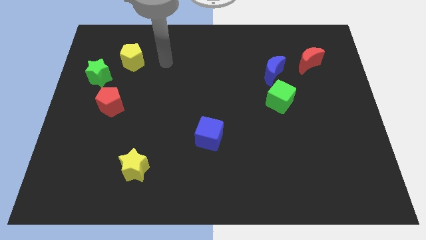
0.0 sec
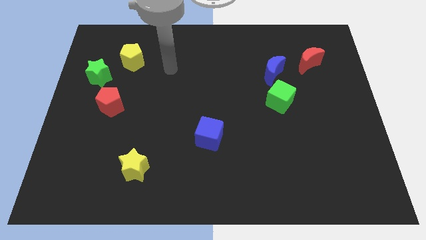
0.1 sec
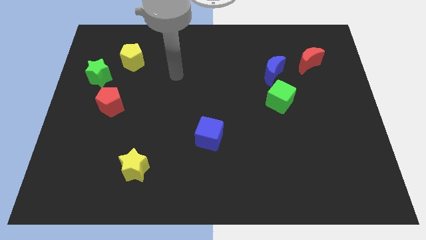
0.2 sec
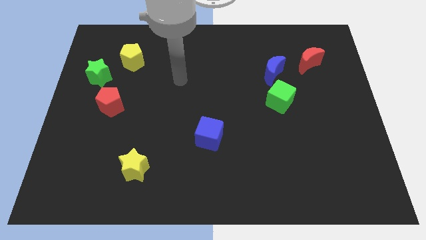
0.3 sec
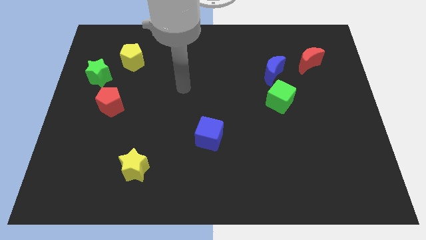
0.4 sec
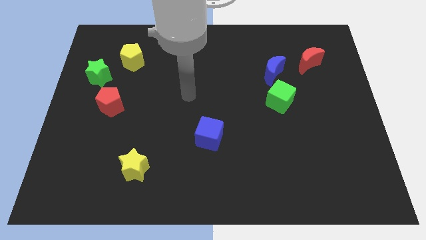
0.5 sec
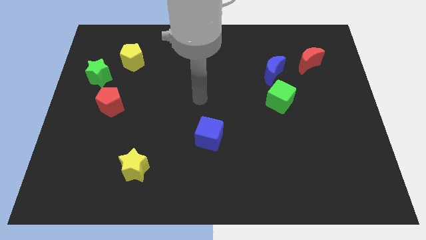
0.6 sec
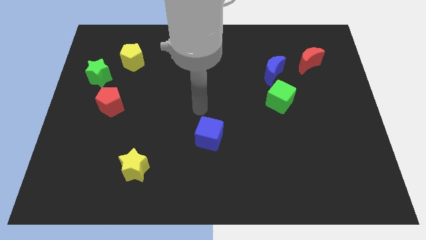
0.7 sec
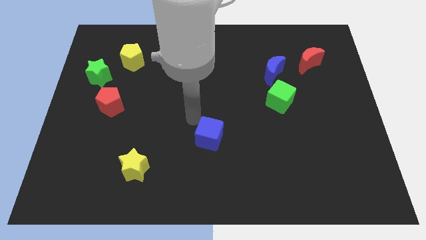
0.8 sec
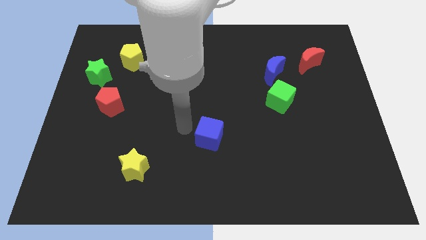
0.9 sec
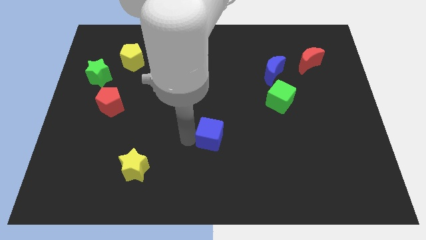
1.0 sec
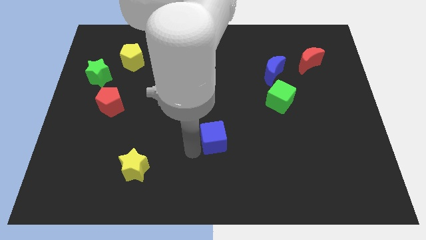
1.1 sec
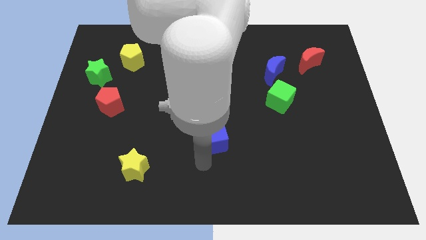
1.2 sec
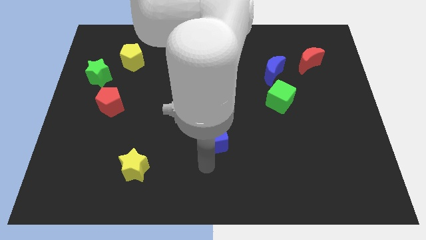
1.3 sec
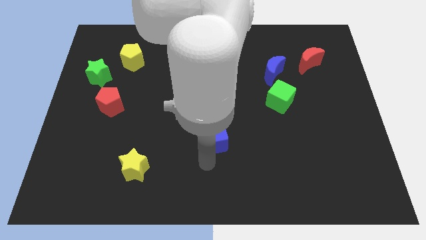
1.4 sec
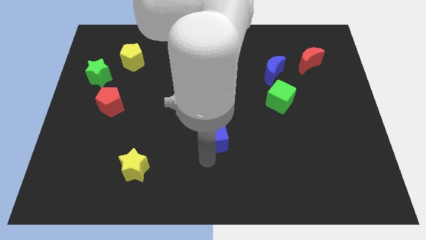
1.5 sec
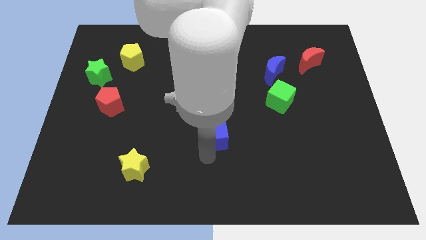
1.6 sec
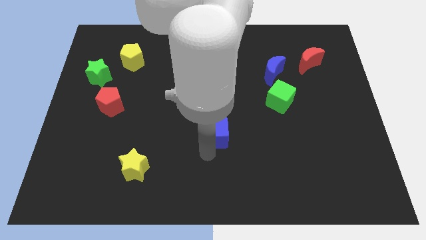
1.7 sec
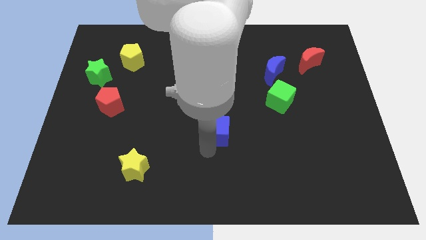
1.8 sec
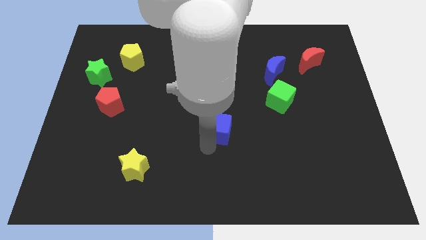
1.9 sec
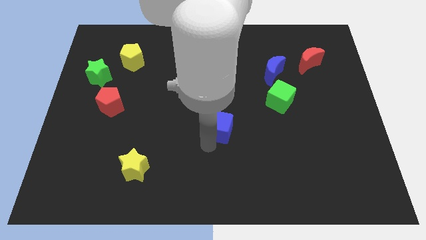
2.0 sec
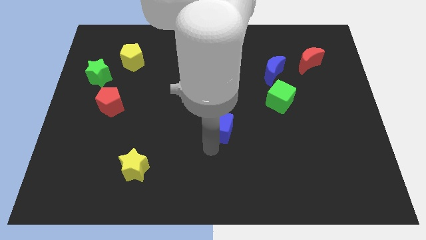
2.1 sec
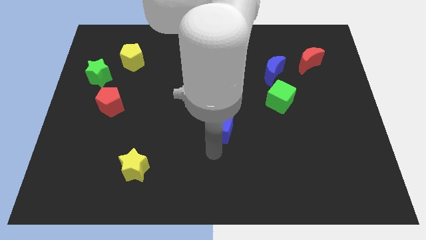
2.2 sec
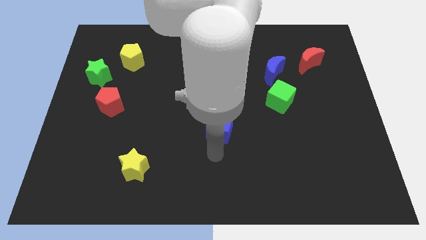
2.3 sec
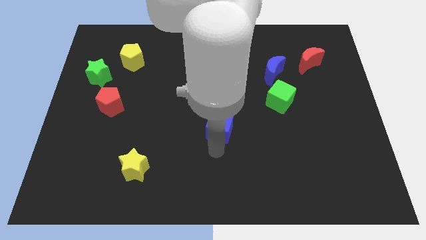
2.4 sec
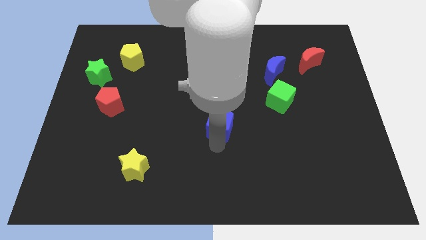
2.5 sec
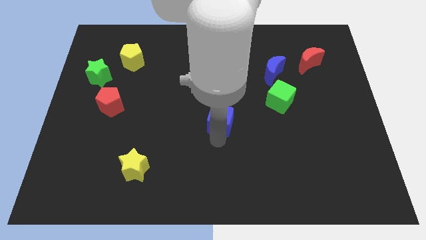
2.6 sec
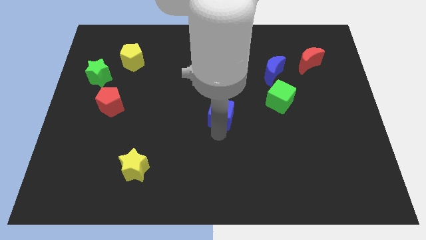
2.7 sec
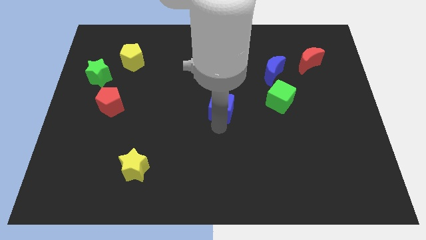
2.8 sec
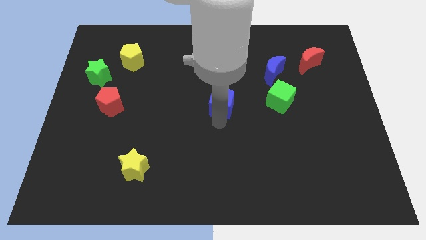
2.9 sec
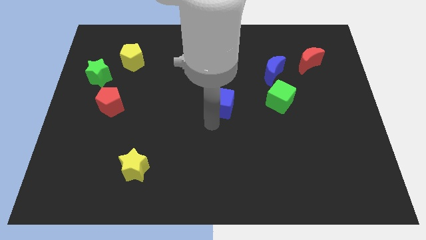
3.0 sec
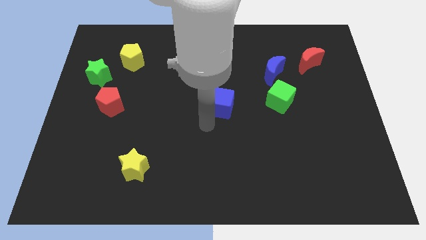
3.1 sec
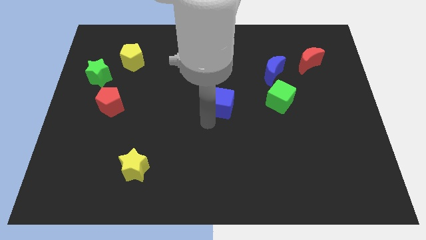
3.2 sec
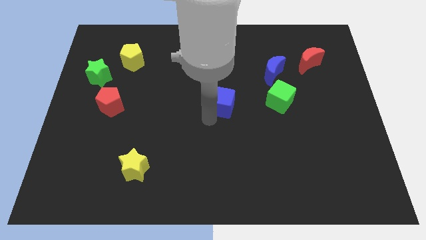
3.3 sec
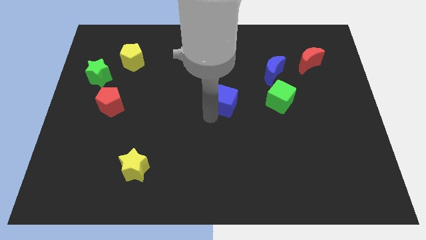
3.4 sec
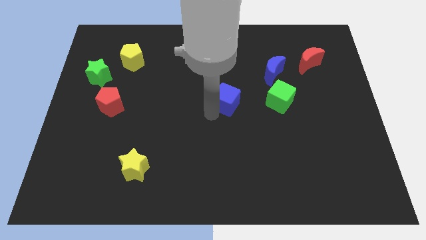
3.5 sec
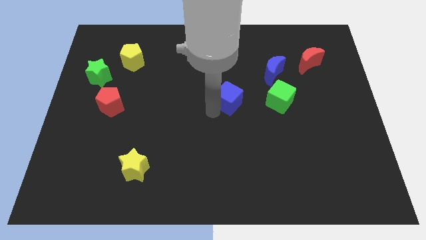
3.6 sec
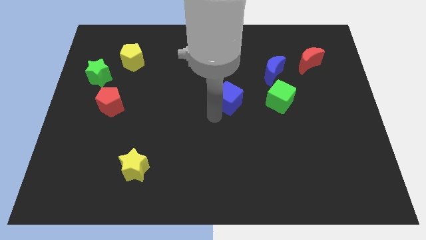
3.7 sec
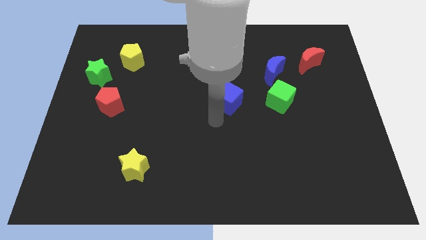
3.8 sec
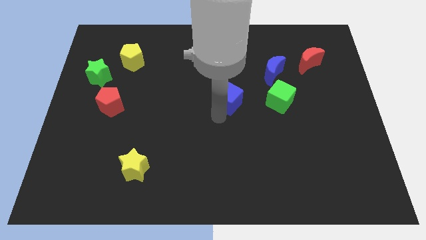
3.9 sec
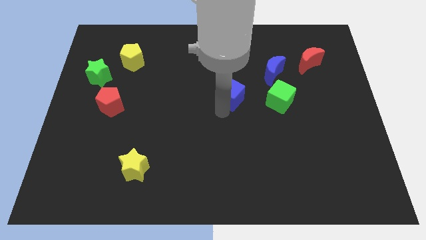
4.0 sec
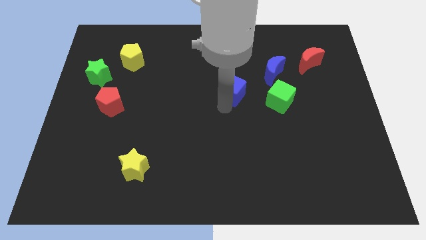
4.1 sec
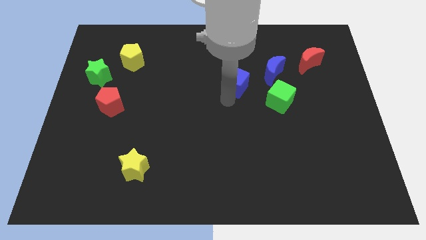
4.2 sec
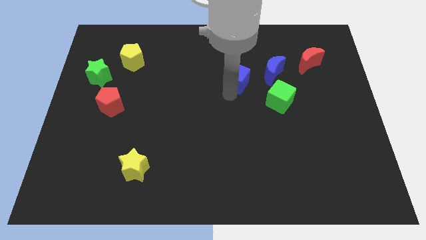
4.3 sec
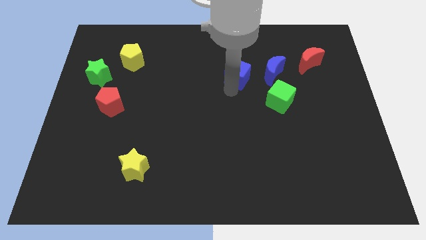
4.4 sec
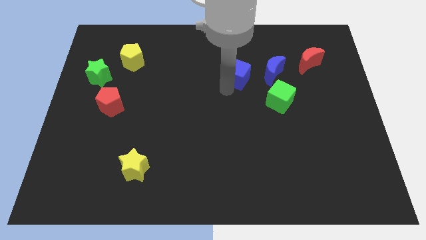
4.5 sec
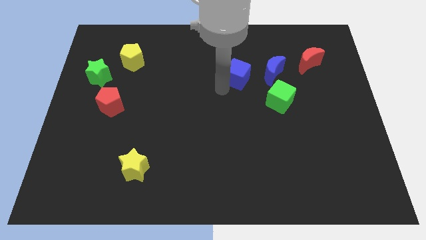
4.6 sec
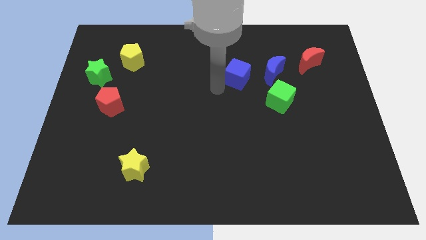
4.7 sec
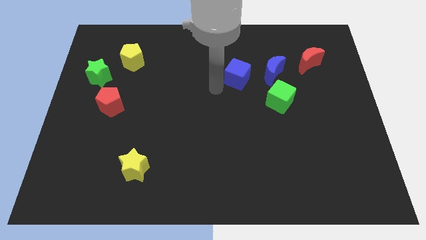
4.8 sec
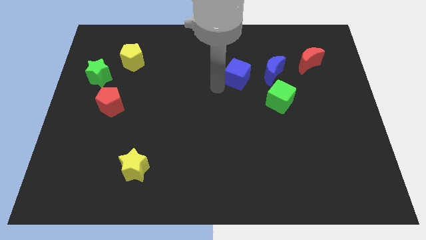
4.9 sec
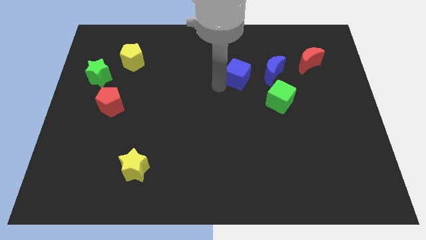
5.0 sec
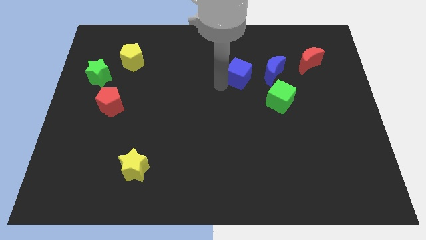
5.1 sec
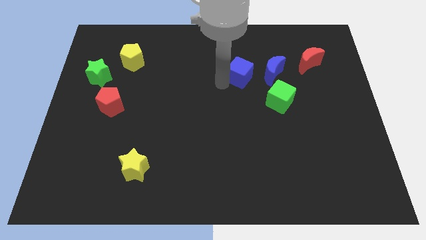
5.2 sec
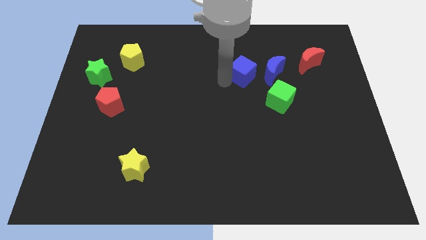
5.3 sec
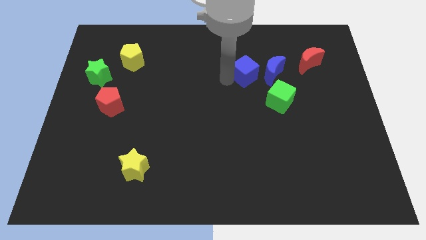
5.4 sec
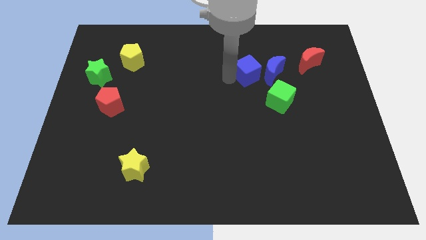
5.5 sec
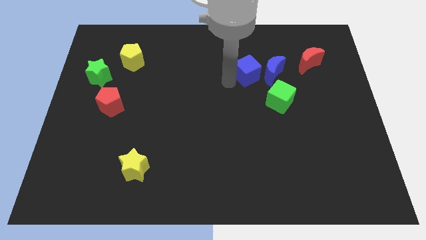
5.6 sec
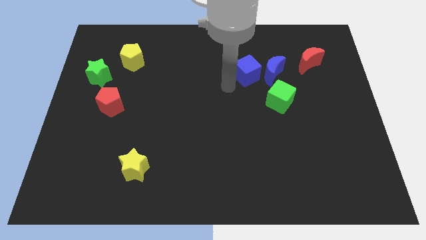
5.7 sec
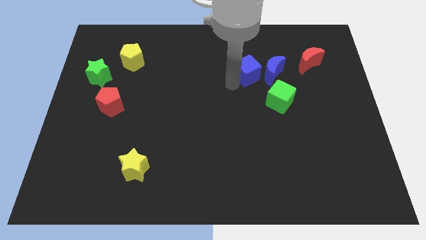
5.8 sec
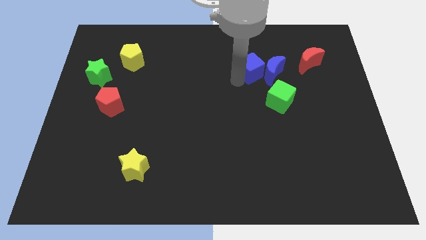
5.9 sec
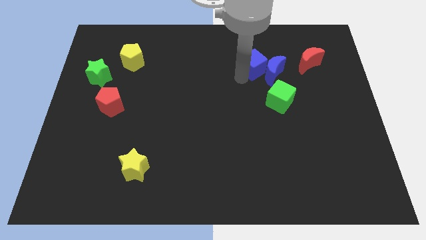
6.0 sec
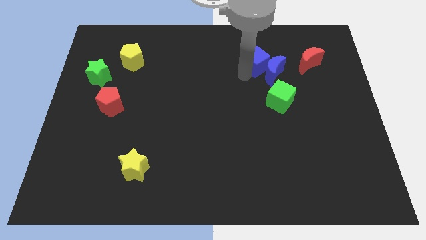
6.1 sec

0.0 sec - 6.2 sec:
move the blue cube to the top side of the green cube

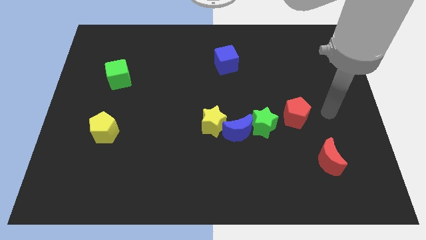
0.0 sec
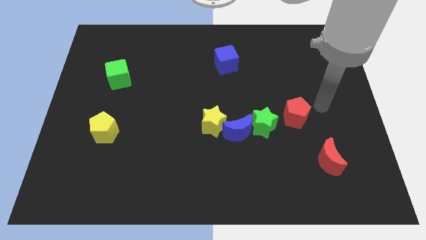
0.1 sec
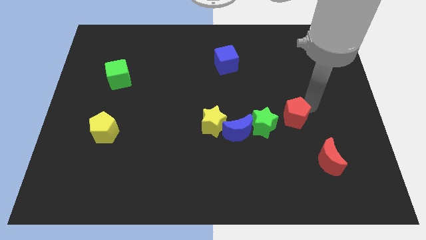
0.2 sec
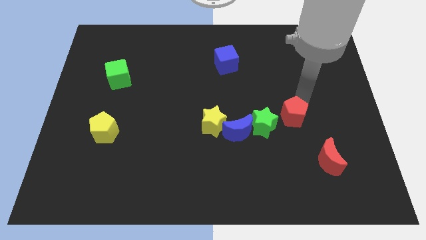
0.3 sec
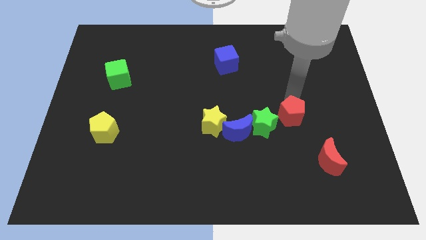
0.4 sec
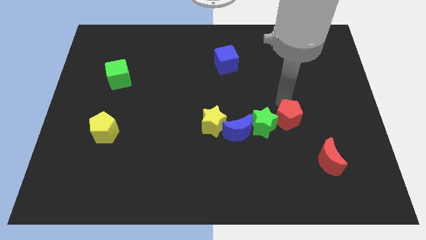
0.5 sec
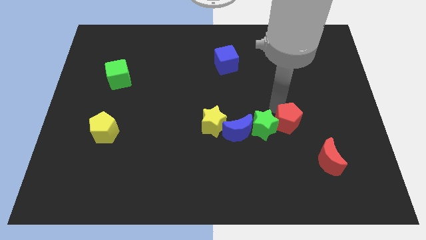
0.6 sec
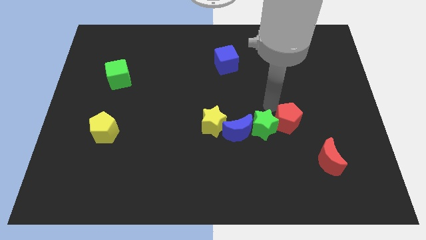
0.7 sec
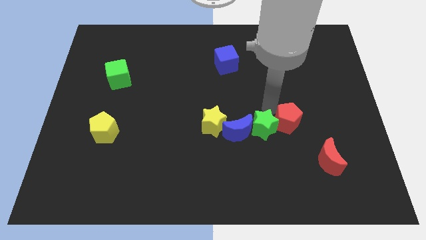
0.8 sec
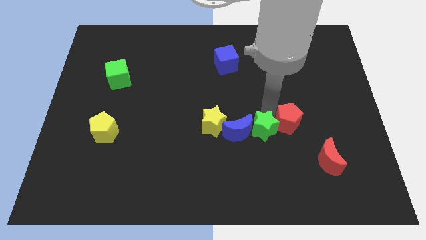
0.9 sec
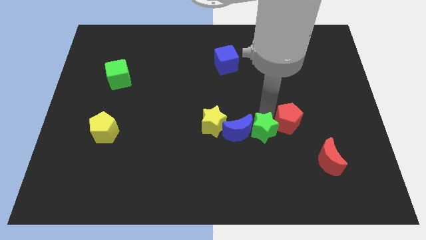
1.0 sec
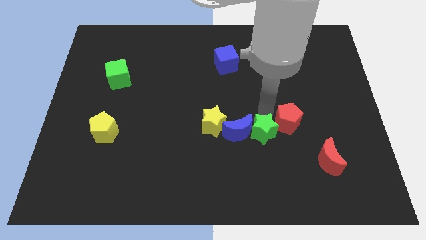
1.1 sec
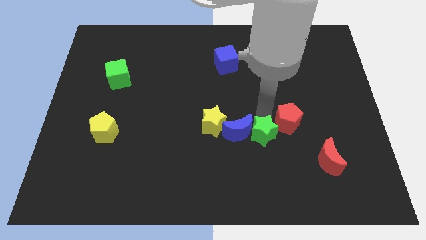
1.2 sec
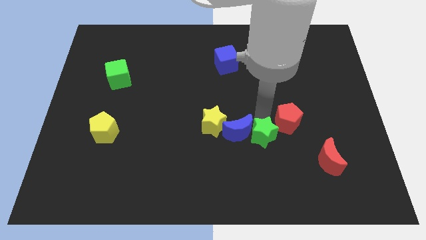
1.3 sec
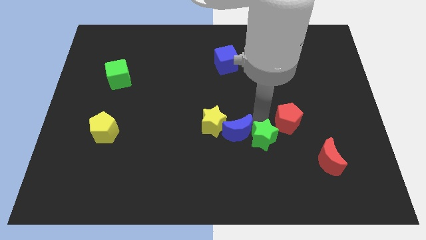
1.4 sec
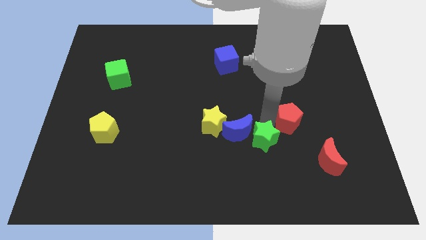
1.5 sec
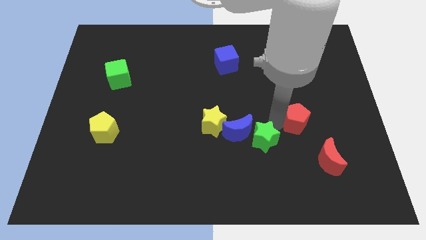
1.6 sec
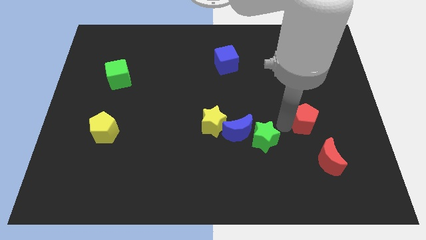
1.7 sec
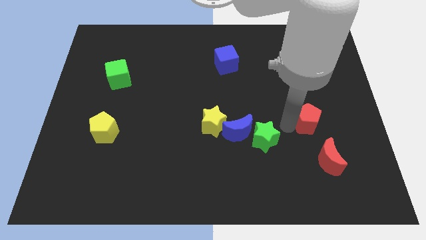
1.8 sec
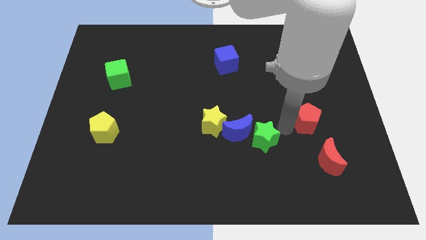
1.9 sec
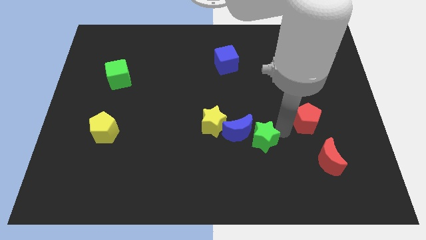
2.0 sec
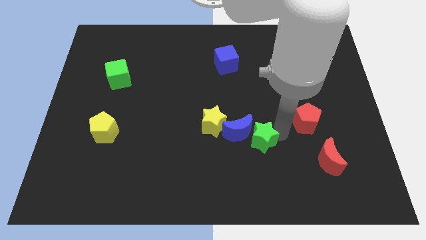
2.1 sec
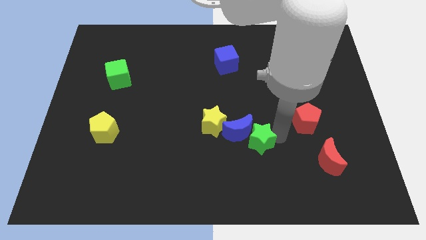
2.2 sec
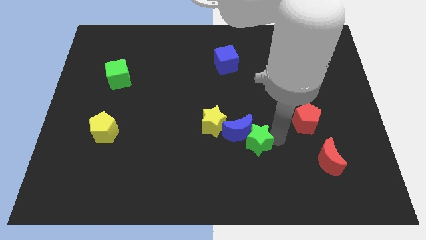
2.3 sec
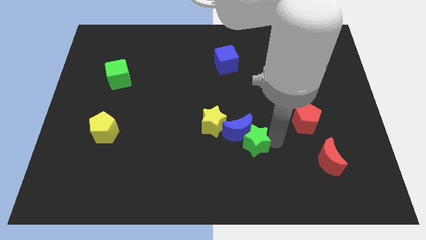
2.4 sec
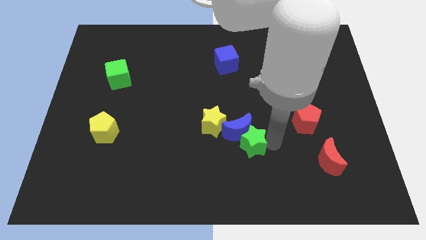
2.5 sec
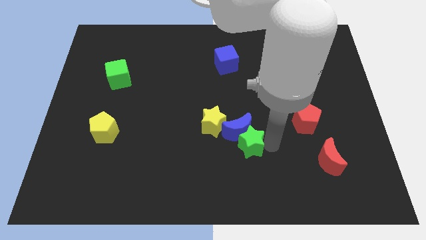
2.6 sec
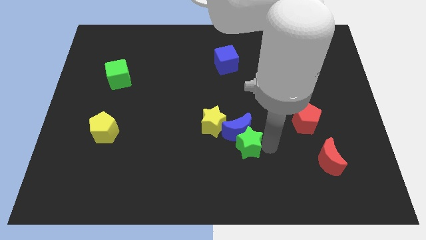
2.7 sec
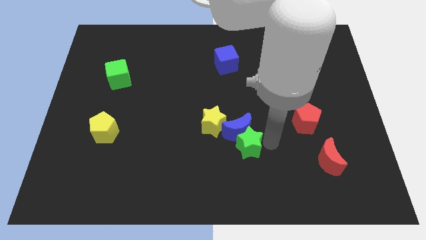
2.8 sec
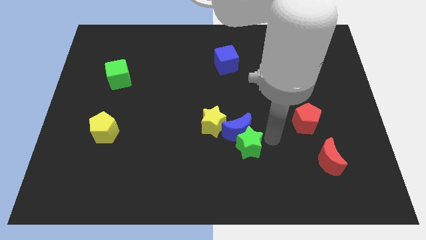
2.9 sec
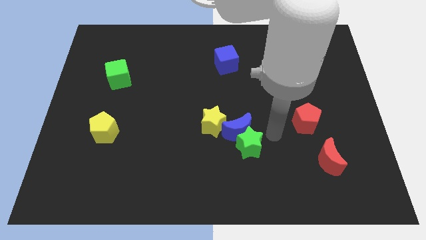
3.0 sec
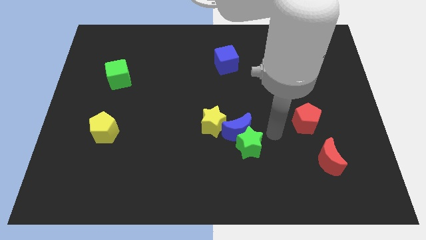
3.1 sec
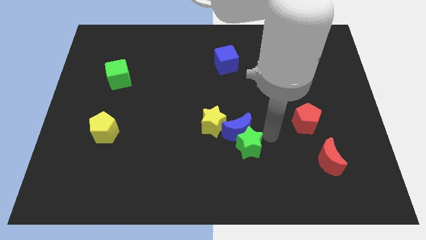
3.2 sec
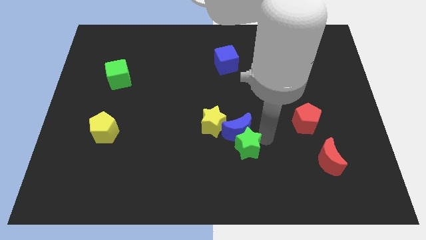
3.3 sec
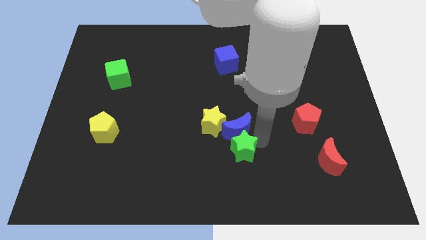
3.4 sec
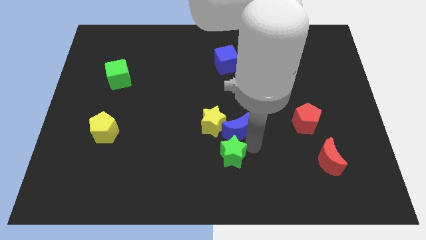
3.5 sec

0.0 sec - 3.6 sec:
push the green star to the bottom of the yellow star
